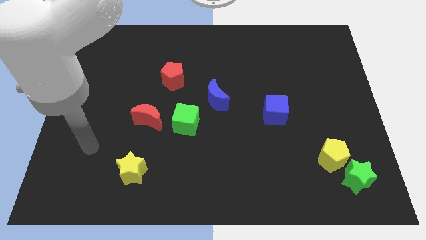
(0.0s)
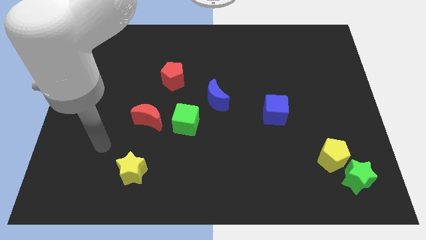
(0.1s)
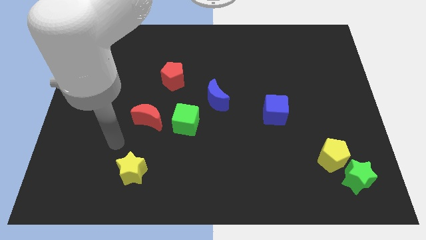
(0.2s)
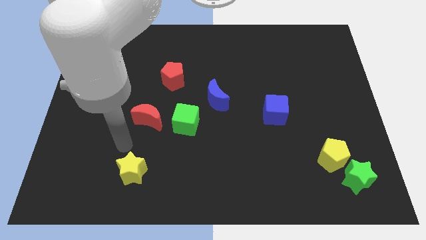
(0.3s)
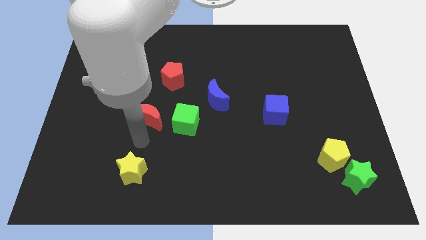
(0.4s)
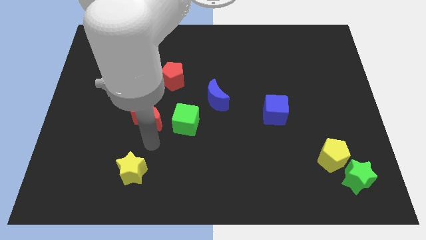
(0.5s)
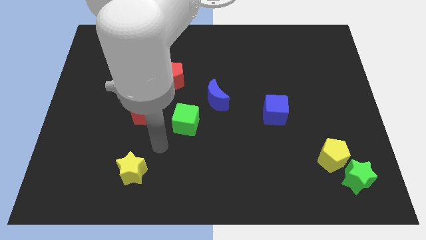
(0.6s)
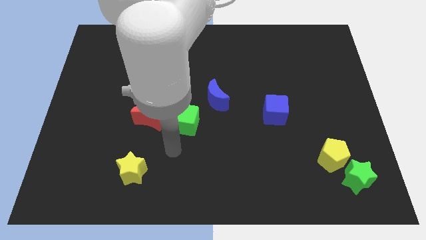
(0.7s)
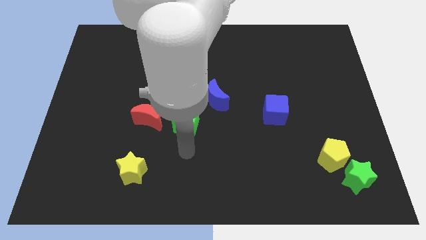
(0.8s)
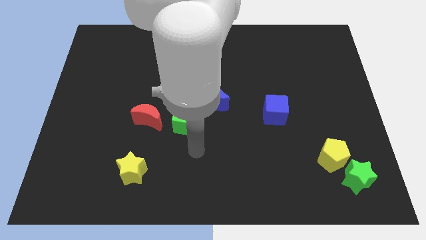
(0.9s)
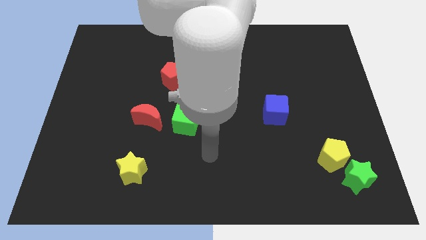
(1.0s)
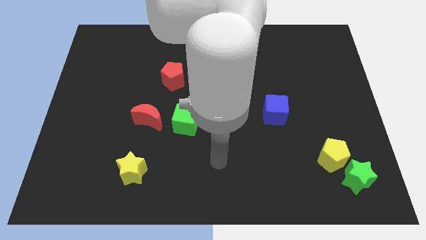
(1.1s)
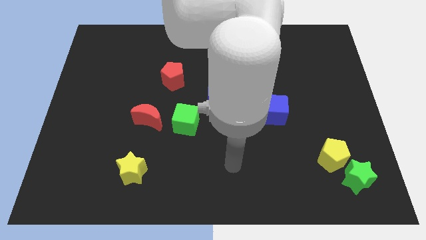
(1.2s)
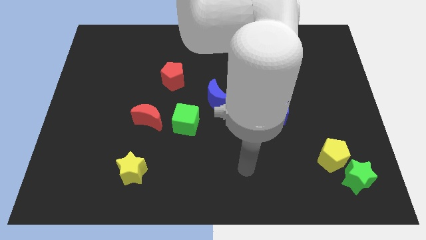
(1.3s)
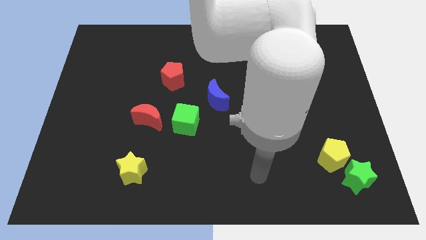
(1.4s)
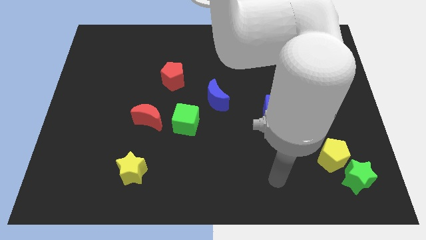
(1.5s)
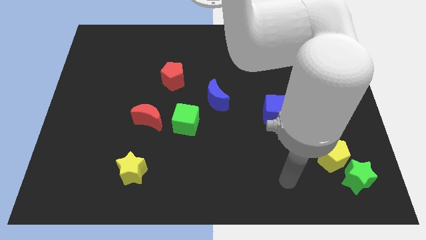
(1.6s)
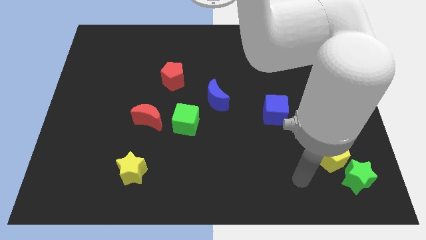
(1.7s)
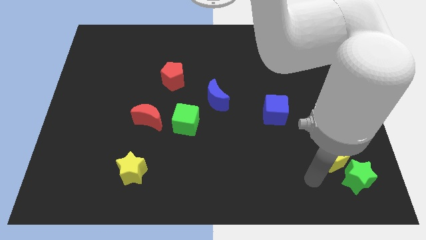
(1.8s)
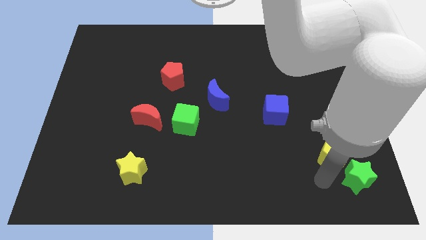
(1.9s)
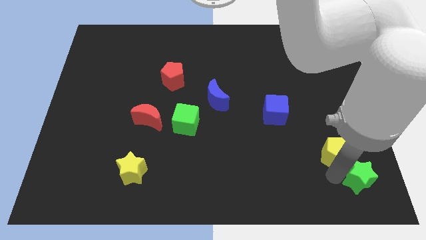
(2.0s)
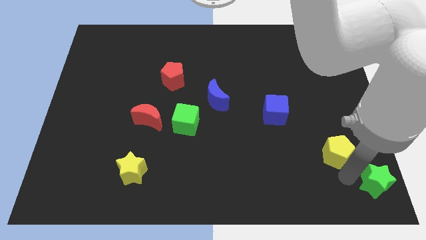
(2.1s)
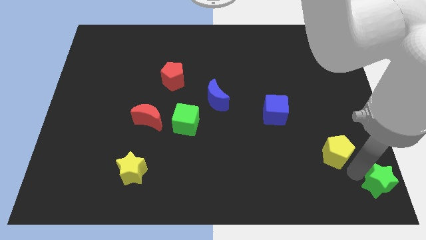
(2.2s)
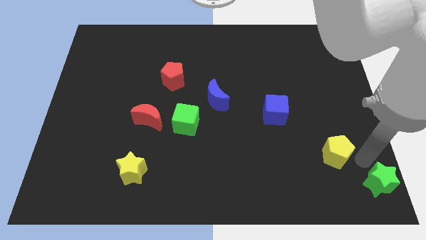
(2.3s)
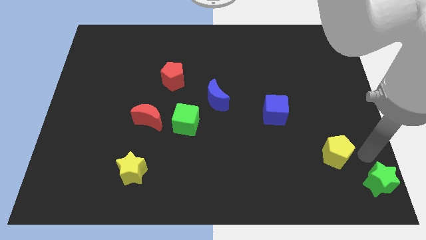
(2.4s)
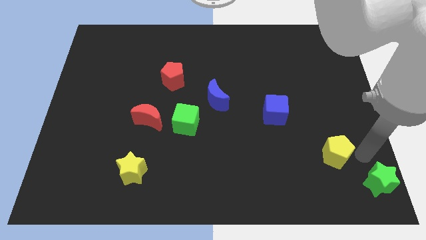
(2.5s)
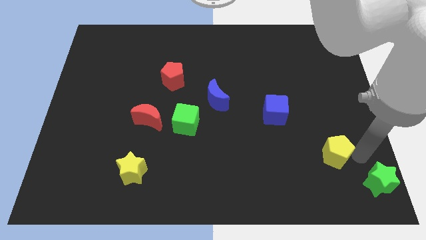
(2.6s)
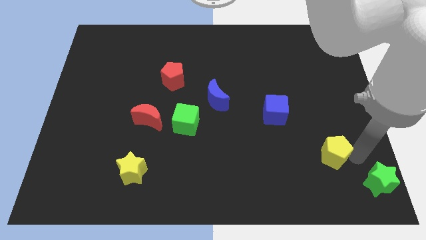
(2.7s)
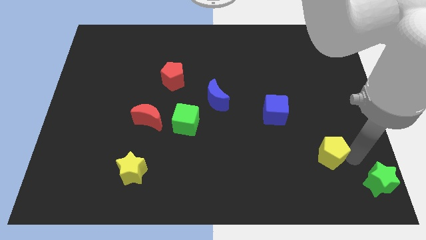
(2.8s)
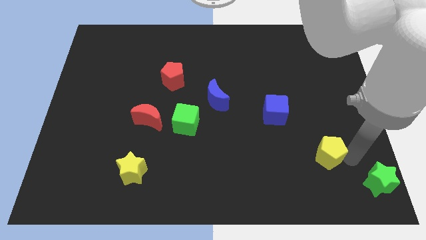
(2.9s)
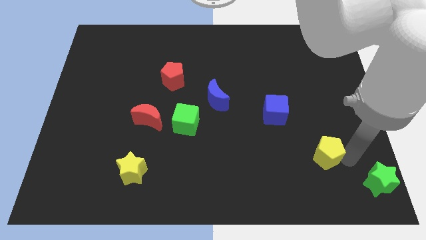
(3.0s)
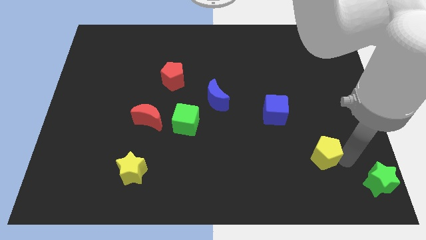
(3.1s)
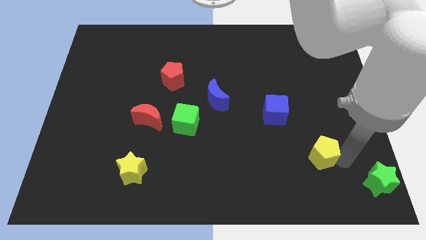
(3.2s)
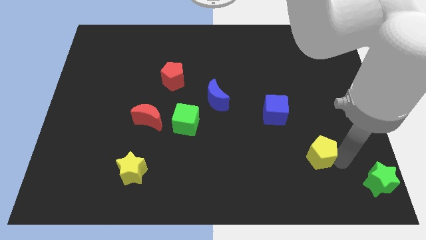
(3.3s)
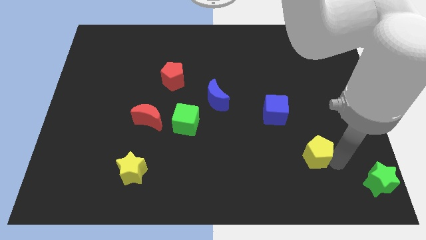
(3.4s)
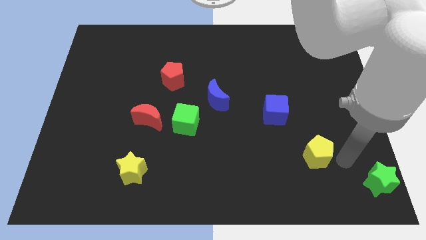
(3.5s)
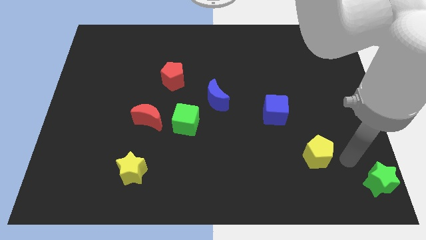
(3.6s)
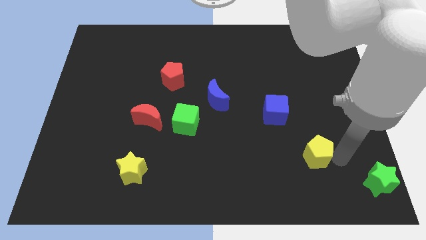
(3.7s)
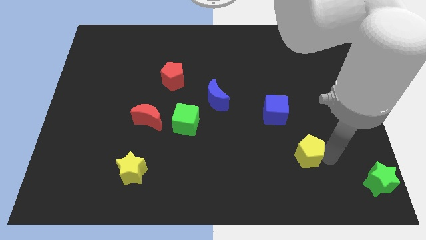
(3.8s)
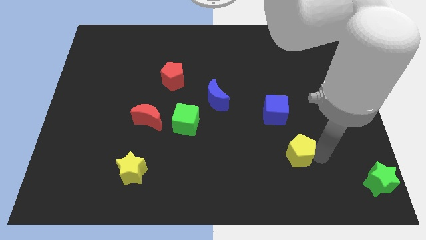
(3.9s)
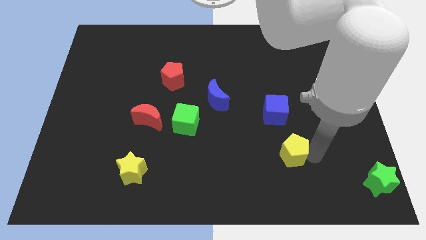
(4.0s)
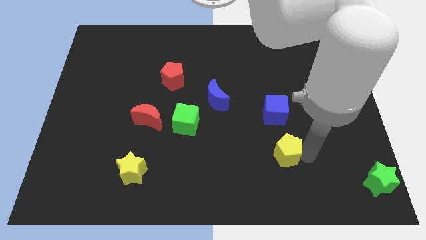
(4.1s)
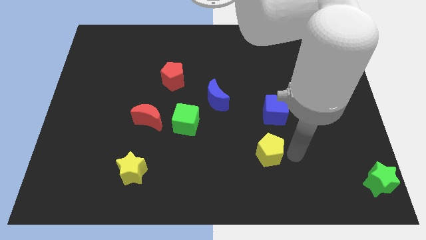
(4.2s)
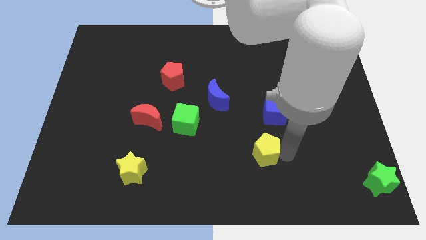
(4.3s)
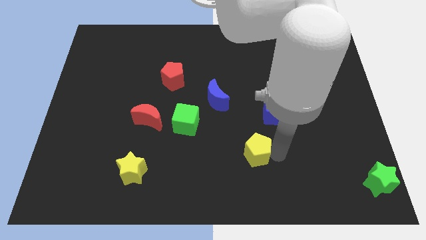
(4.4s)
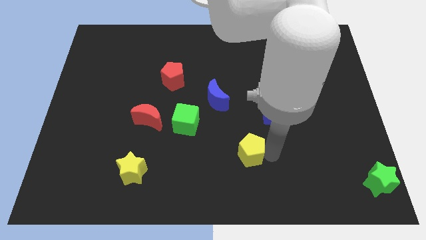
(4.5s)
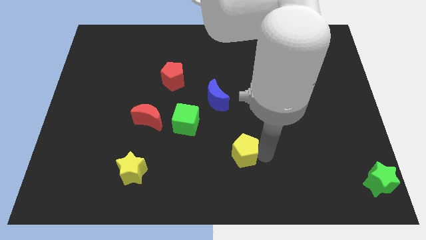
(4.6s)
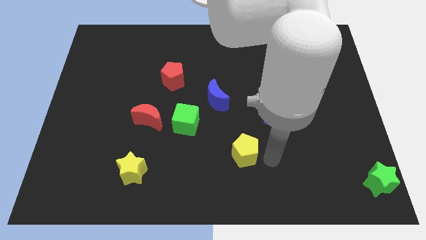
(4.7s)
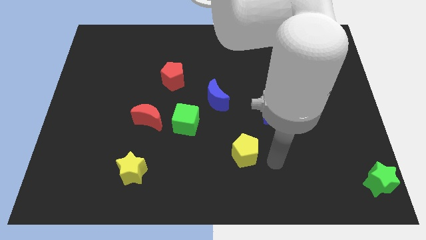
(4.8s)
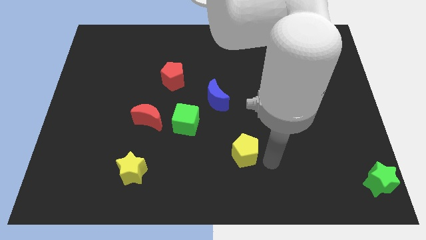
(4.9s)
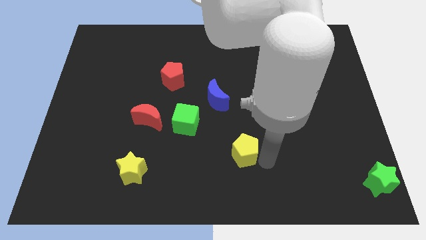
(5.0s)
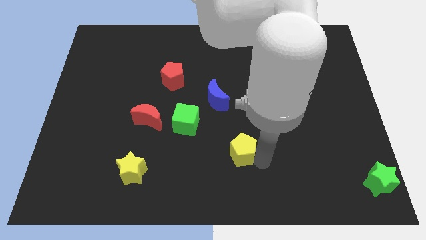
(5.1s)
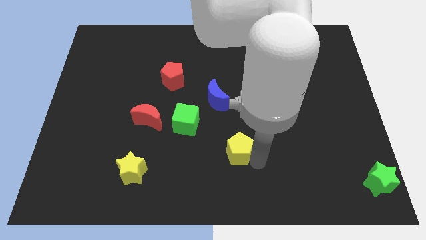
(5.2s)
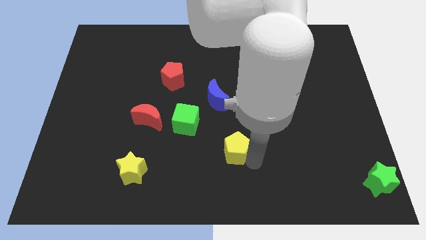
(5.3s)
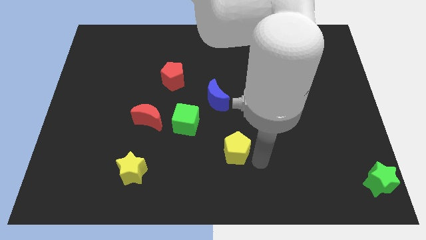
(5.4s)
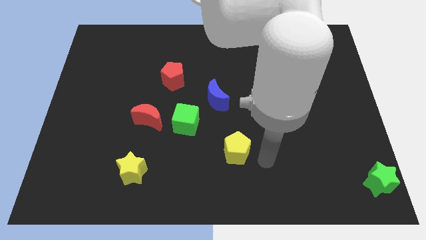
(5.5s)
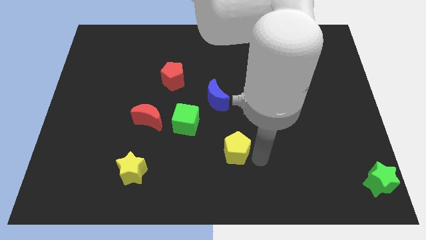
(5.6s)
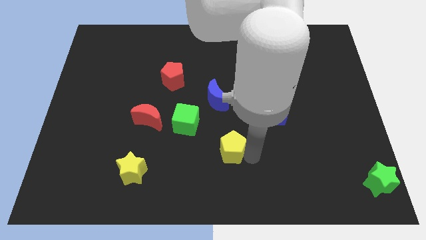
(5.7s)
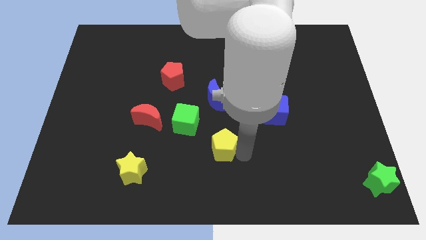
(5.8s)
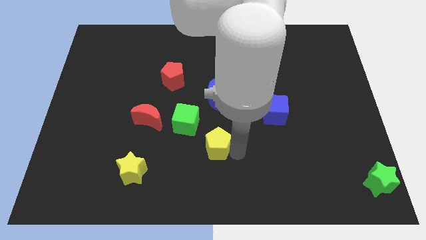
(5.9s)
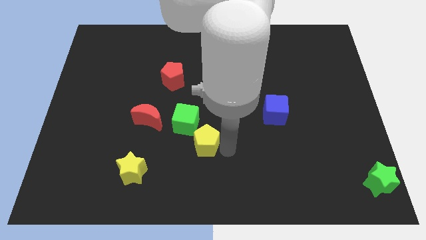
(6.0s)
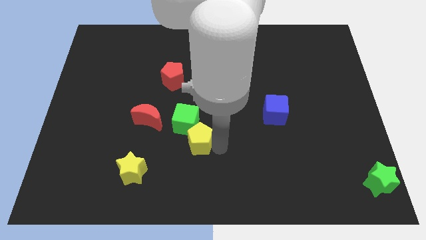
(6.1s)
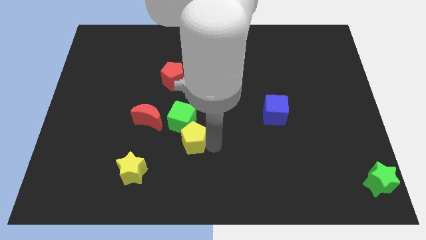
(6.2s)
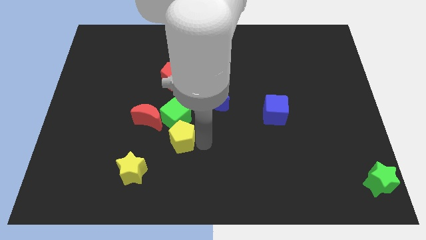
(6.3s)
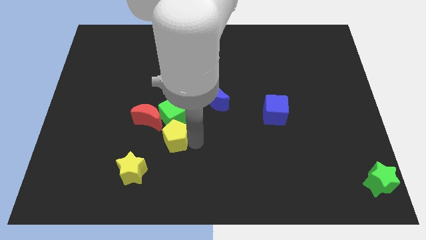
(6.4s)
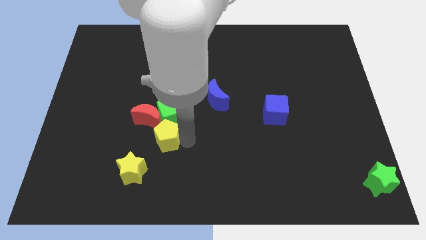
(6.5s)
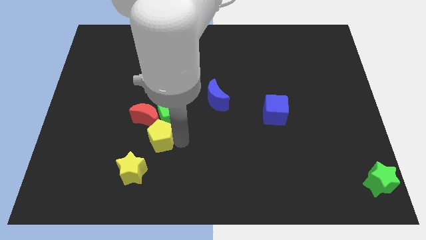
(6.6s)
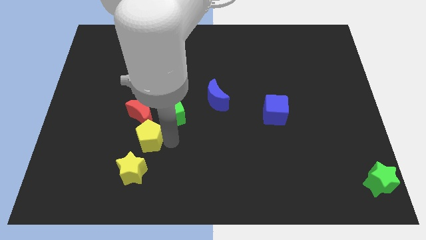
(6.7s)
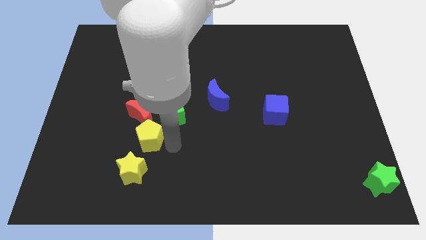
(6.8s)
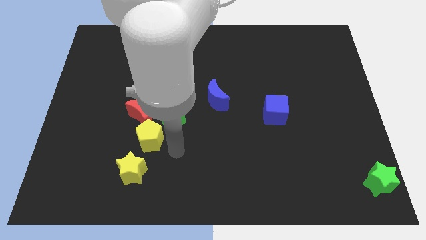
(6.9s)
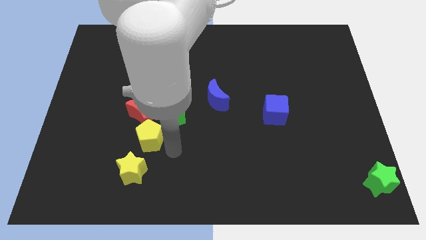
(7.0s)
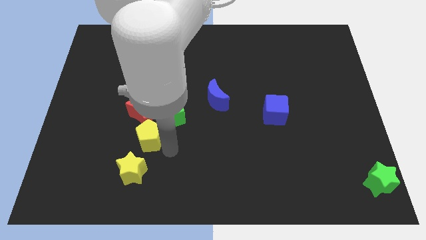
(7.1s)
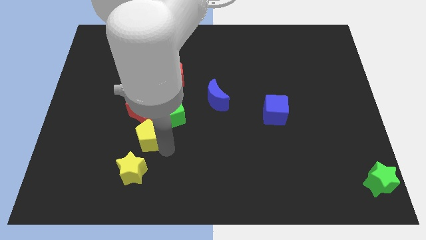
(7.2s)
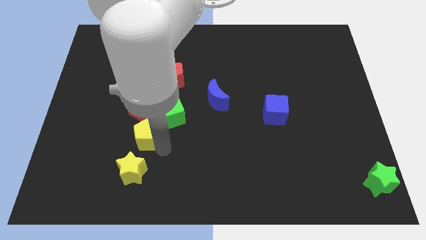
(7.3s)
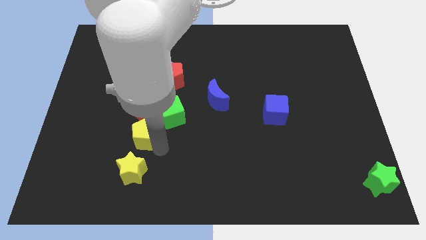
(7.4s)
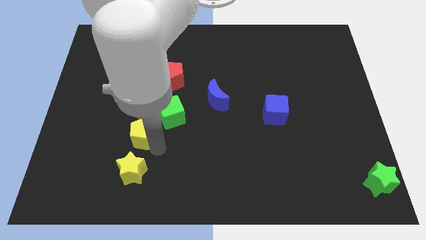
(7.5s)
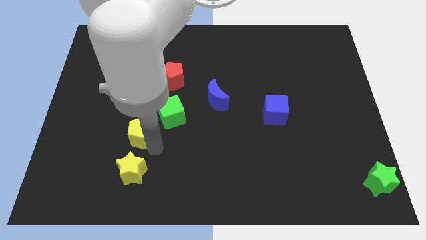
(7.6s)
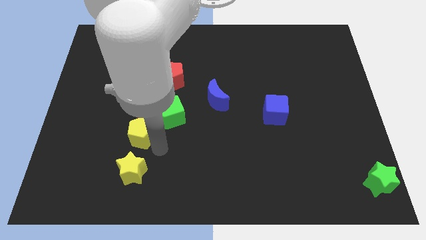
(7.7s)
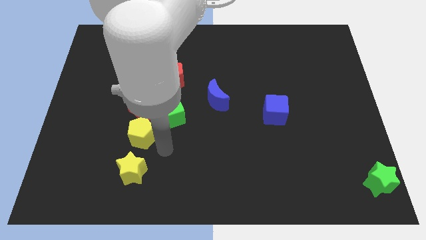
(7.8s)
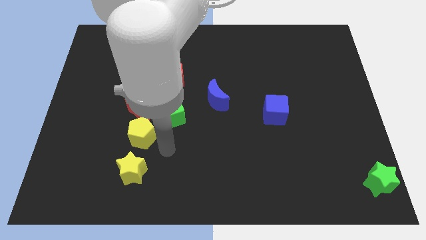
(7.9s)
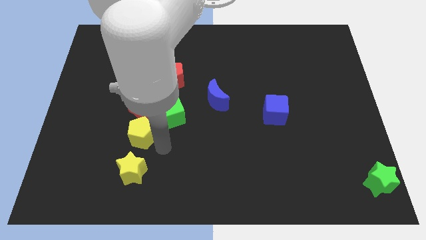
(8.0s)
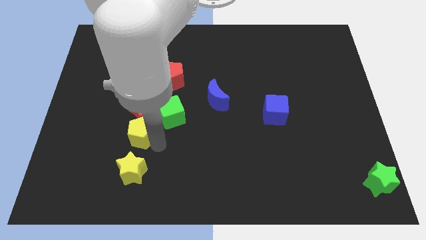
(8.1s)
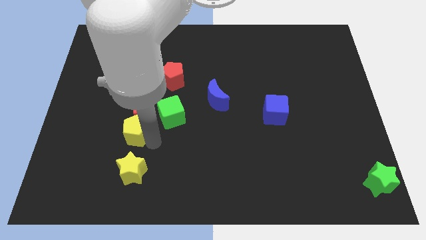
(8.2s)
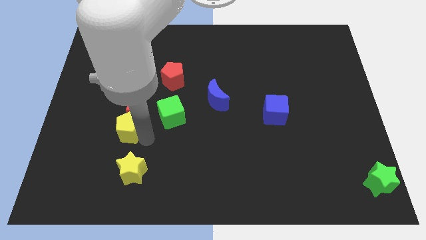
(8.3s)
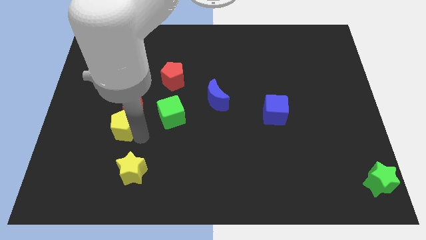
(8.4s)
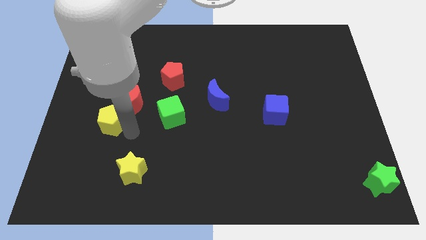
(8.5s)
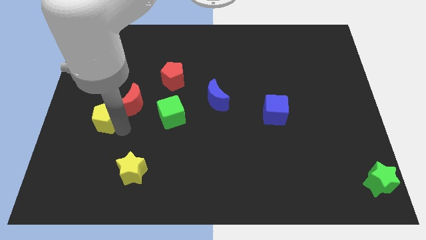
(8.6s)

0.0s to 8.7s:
move the yellow pentagon left of the red moon
